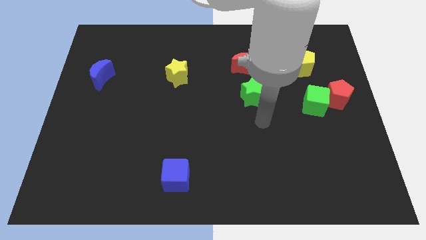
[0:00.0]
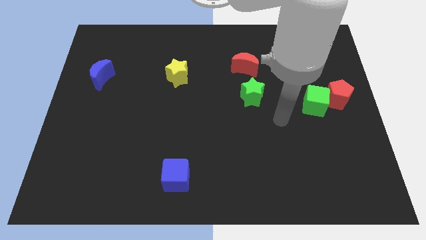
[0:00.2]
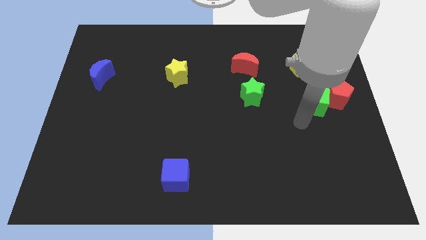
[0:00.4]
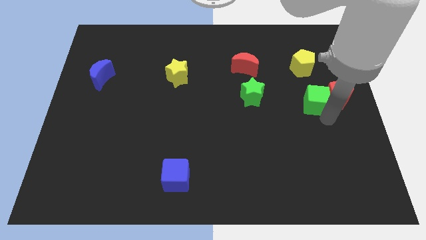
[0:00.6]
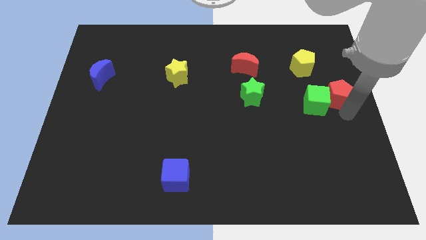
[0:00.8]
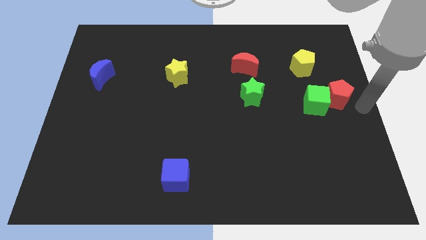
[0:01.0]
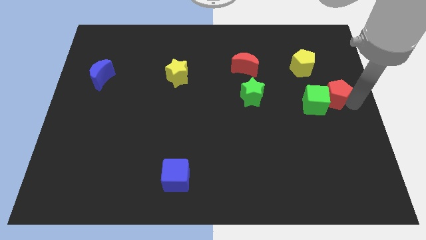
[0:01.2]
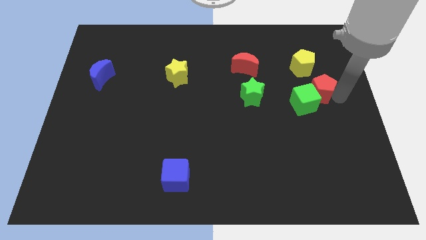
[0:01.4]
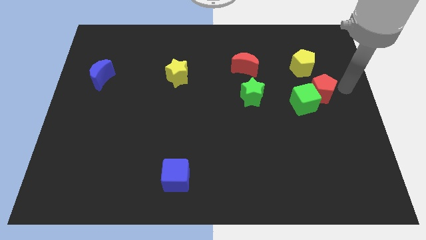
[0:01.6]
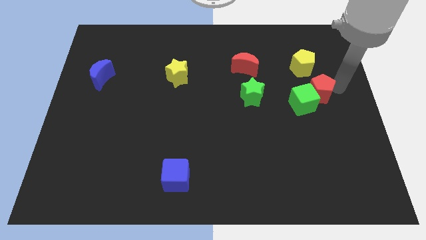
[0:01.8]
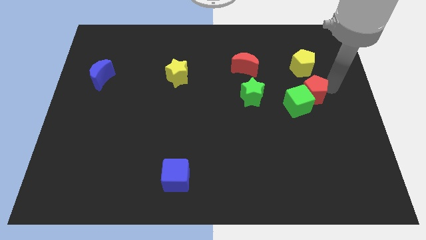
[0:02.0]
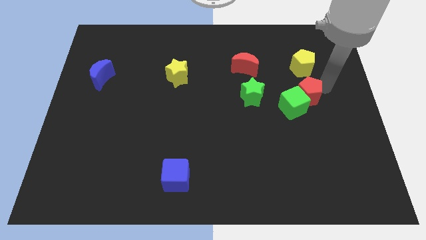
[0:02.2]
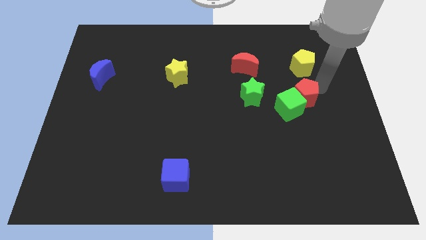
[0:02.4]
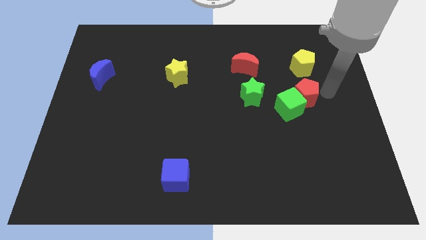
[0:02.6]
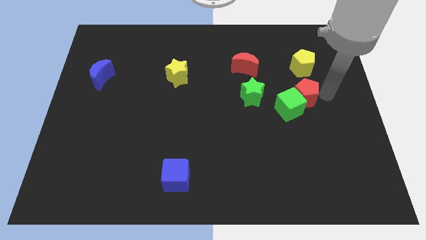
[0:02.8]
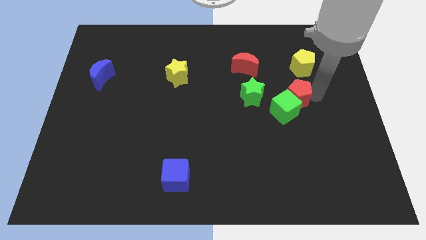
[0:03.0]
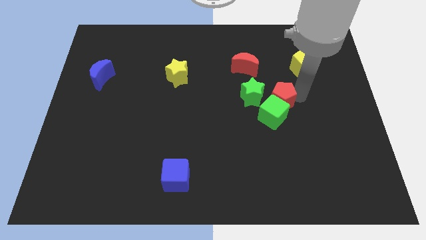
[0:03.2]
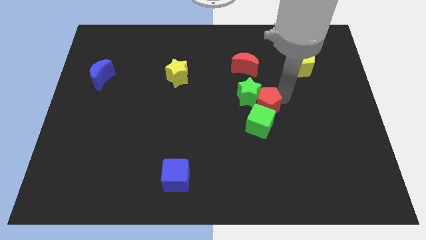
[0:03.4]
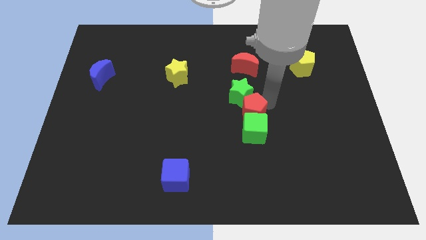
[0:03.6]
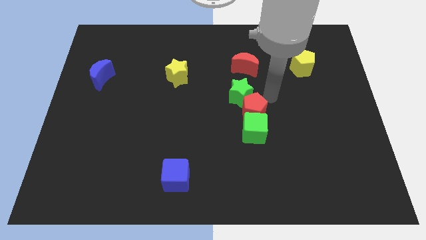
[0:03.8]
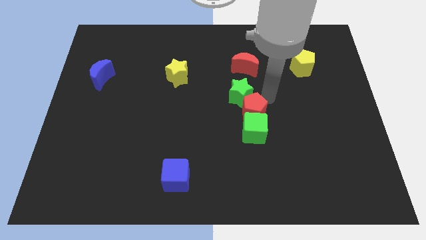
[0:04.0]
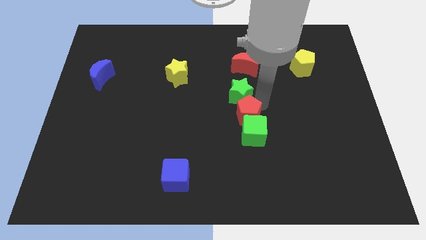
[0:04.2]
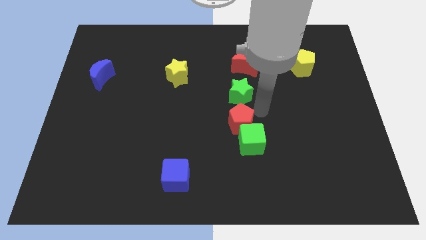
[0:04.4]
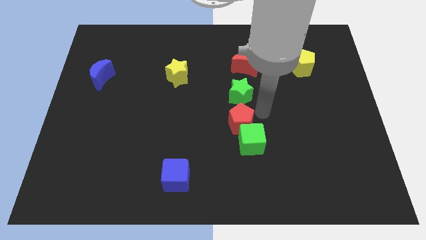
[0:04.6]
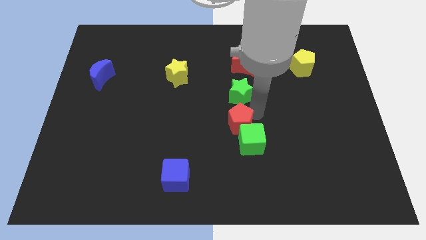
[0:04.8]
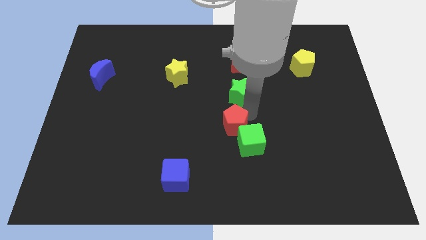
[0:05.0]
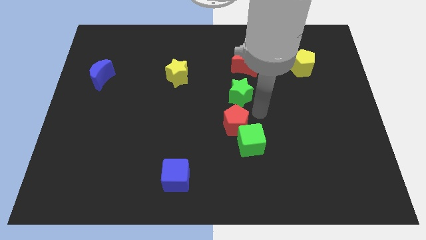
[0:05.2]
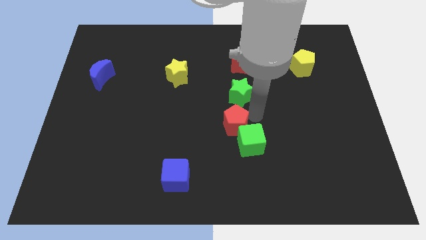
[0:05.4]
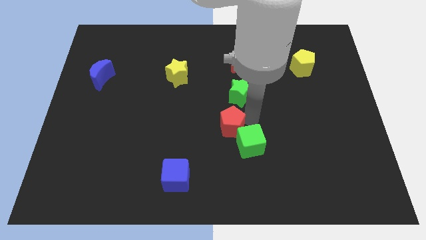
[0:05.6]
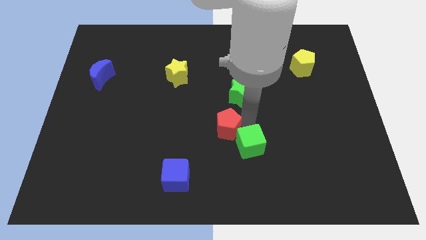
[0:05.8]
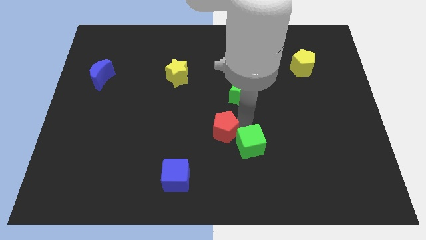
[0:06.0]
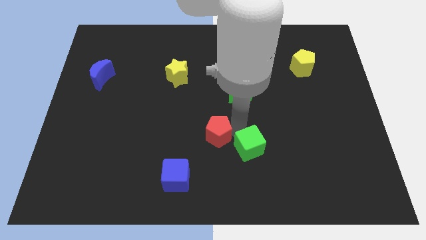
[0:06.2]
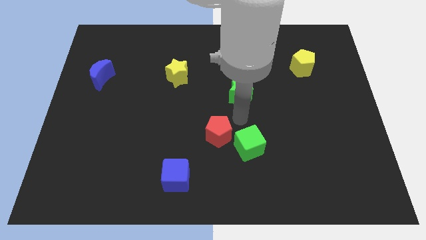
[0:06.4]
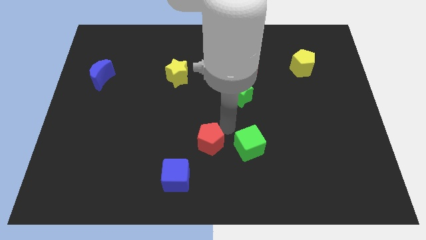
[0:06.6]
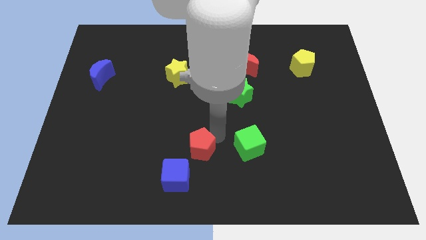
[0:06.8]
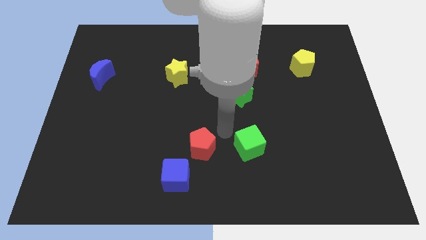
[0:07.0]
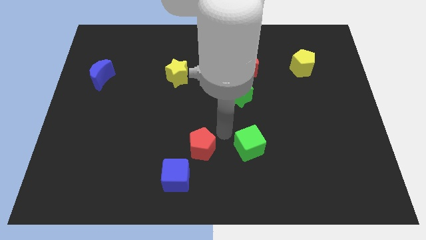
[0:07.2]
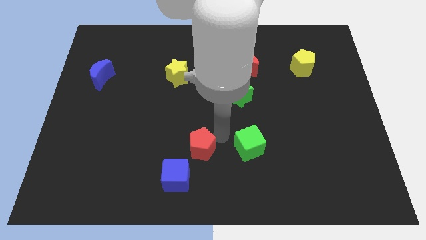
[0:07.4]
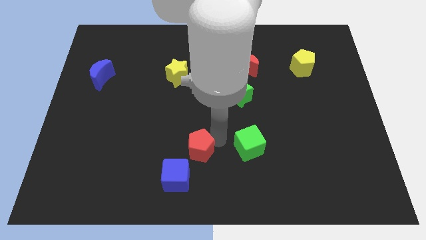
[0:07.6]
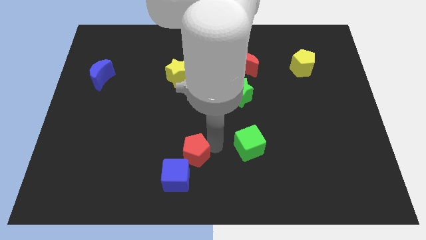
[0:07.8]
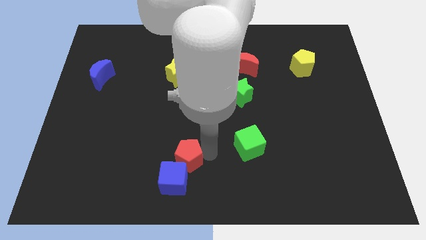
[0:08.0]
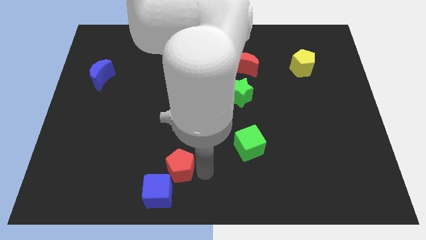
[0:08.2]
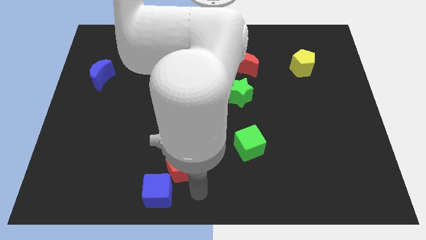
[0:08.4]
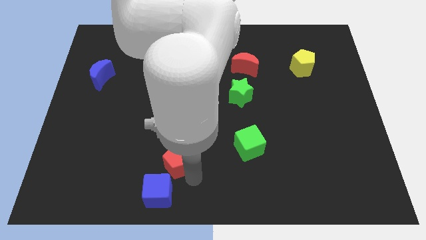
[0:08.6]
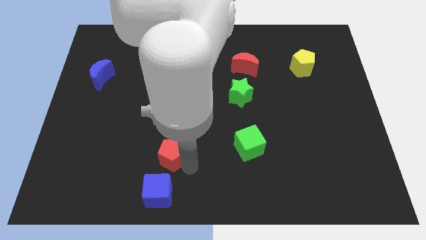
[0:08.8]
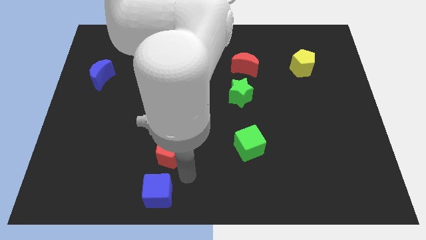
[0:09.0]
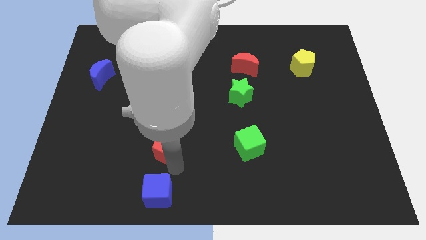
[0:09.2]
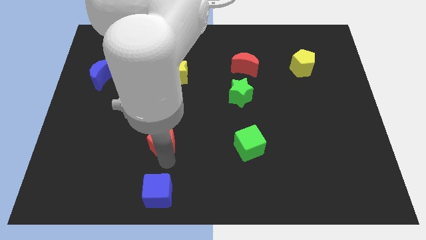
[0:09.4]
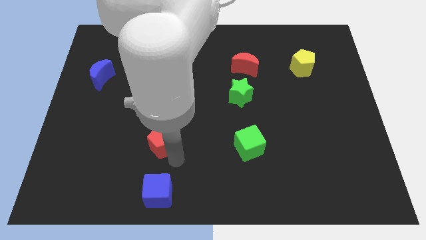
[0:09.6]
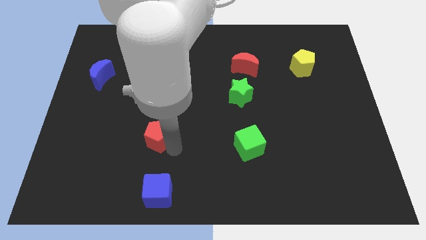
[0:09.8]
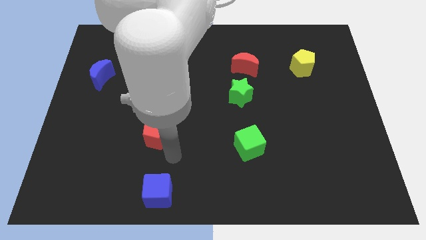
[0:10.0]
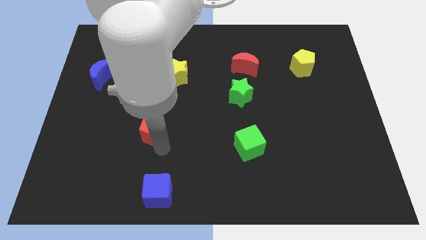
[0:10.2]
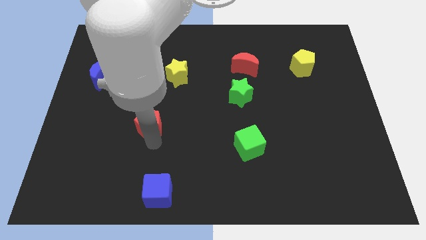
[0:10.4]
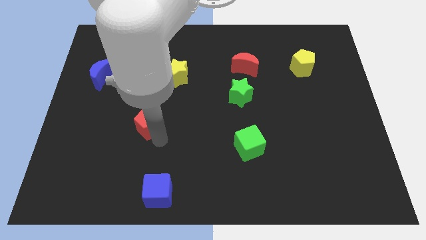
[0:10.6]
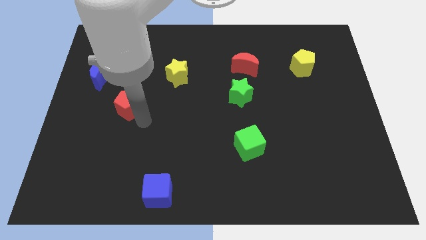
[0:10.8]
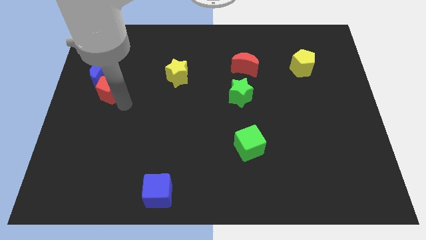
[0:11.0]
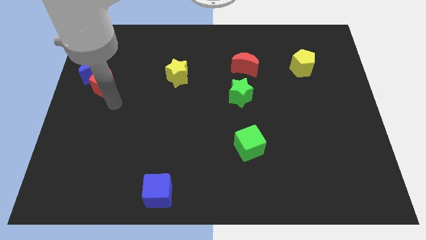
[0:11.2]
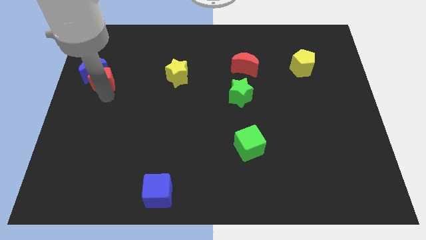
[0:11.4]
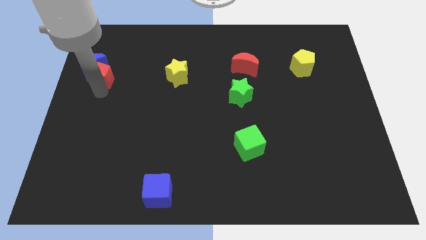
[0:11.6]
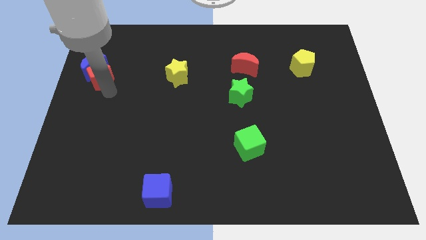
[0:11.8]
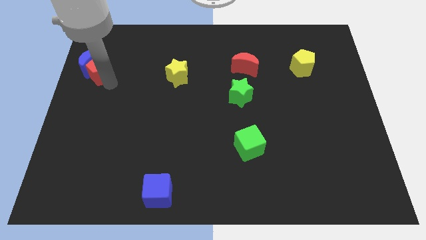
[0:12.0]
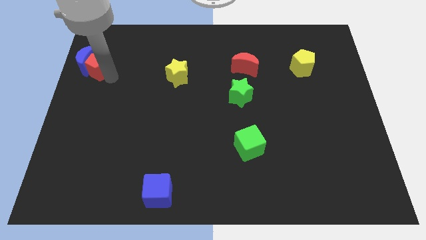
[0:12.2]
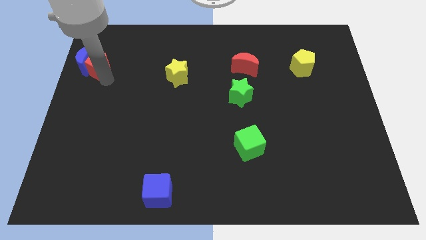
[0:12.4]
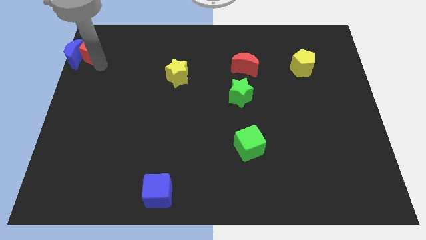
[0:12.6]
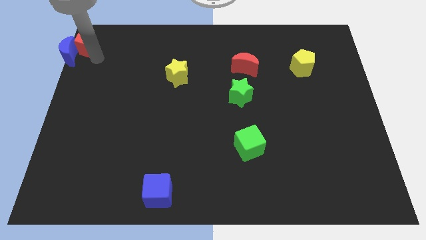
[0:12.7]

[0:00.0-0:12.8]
move the red pentagon to the top left

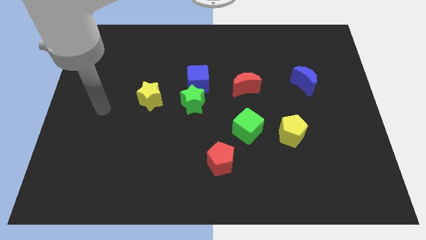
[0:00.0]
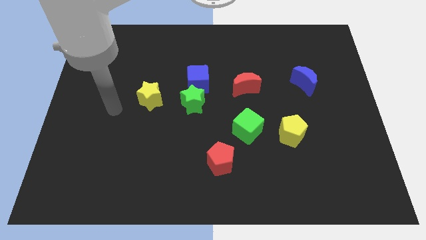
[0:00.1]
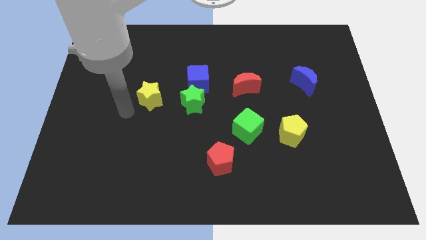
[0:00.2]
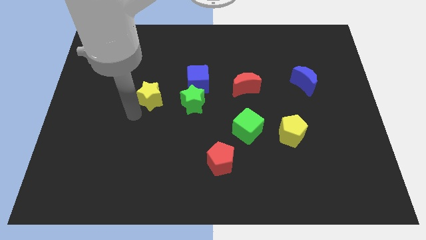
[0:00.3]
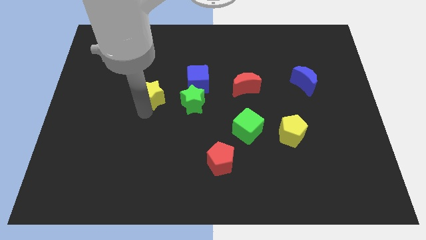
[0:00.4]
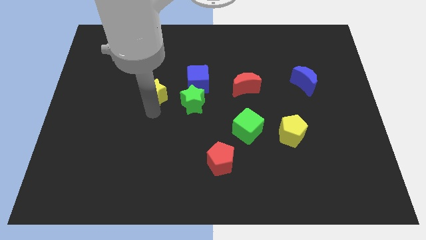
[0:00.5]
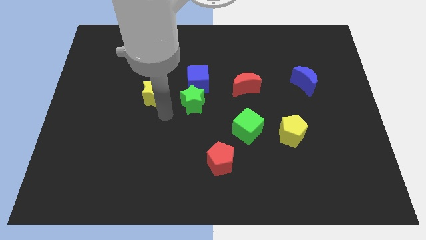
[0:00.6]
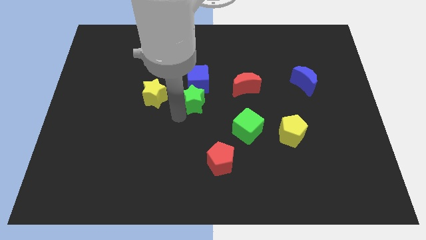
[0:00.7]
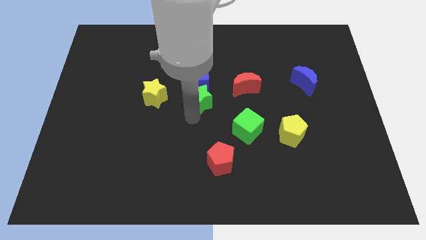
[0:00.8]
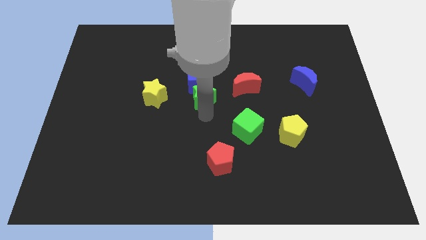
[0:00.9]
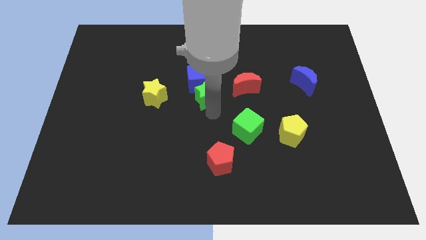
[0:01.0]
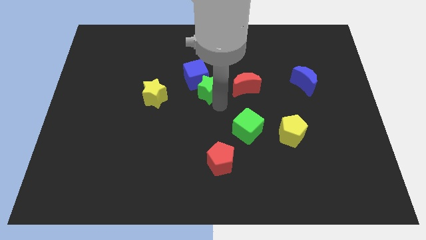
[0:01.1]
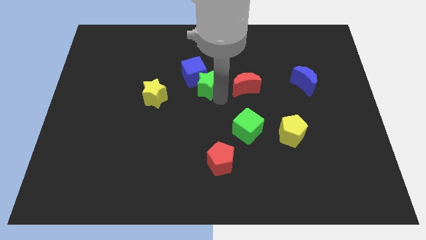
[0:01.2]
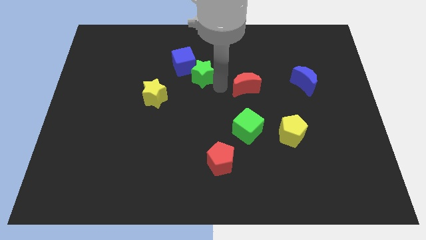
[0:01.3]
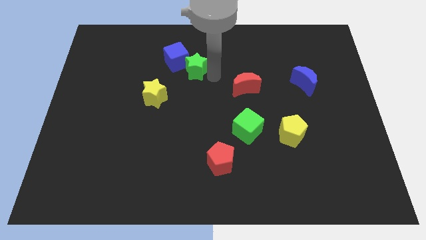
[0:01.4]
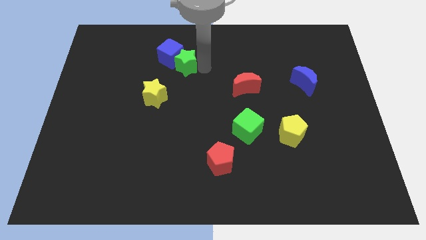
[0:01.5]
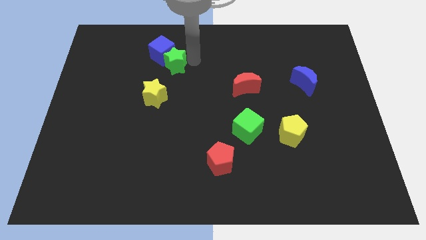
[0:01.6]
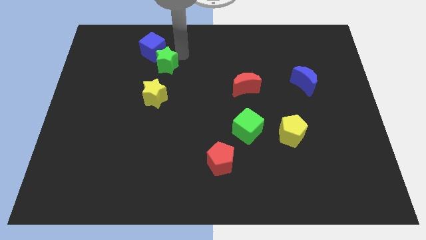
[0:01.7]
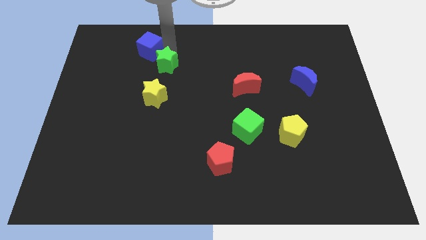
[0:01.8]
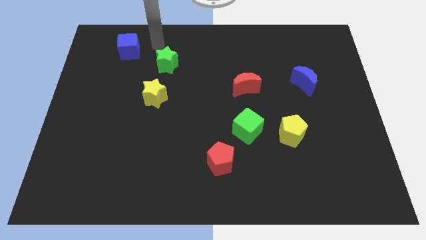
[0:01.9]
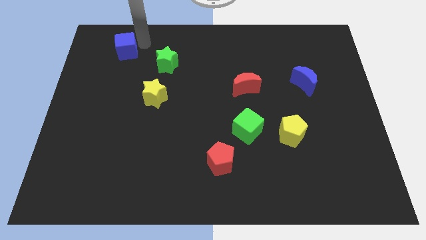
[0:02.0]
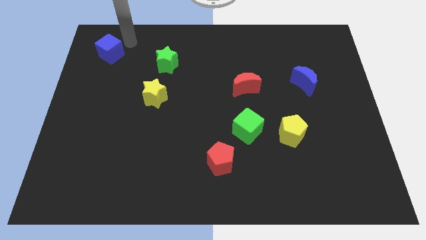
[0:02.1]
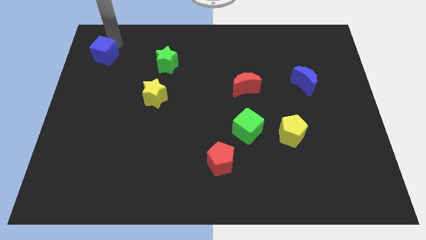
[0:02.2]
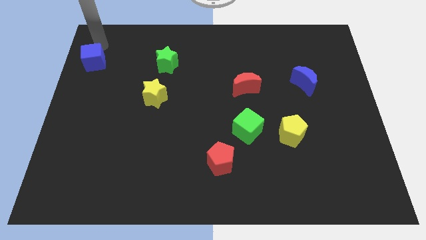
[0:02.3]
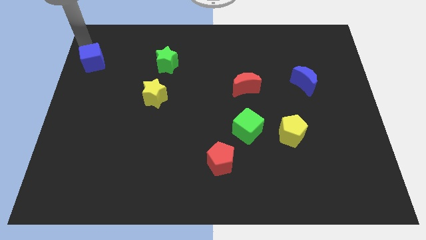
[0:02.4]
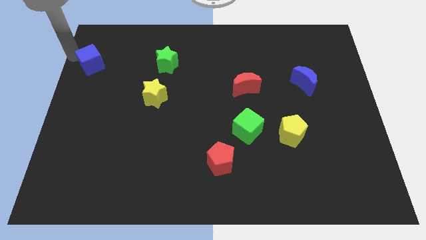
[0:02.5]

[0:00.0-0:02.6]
slide the blue cube to the center left
